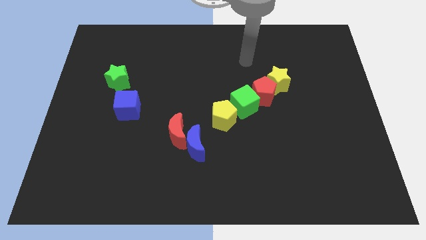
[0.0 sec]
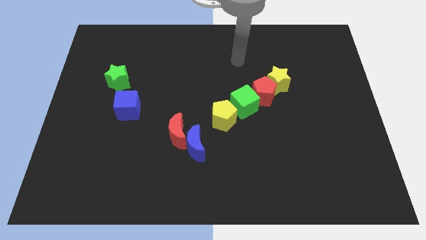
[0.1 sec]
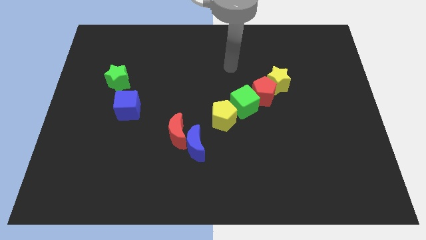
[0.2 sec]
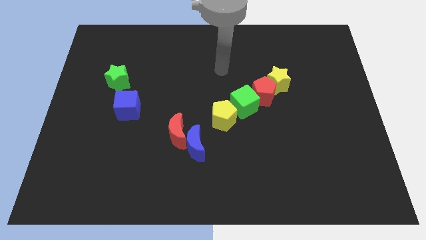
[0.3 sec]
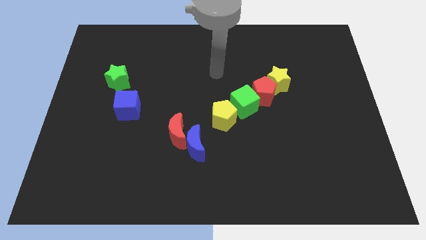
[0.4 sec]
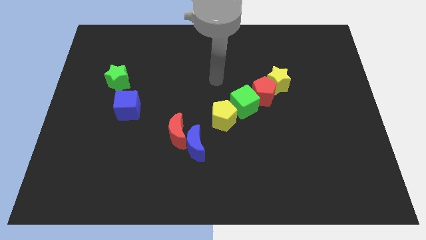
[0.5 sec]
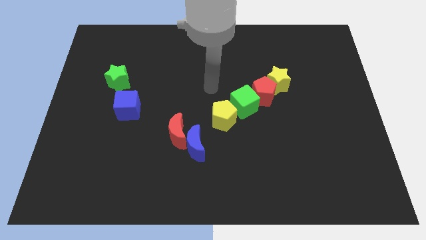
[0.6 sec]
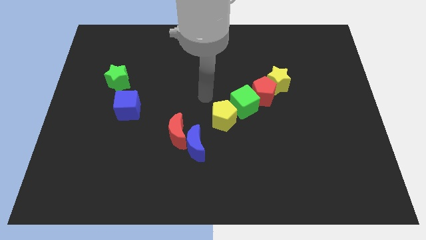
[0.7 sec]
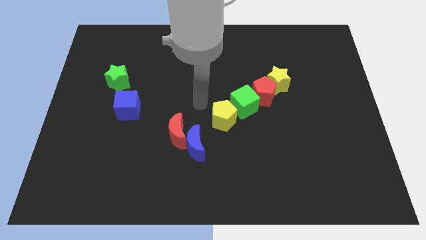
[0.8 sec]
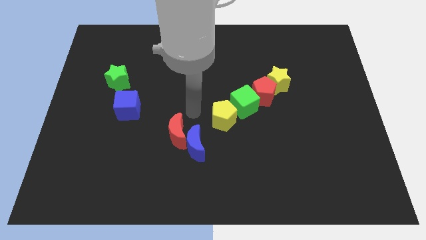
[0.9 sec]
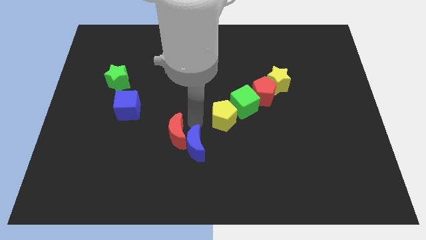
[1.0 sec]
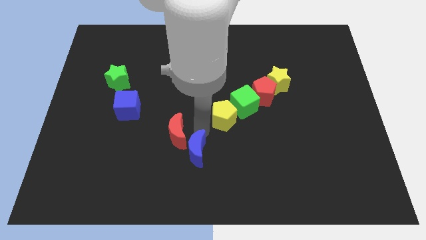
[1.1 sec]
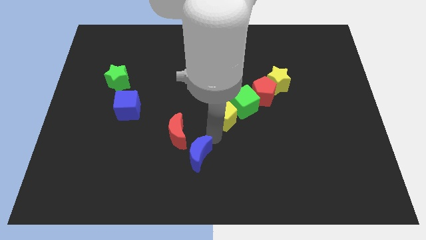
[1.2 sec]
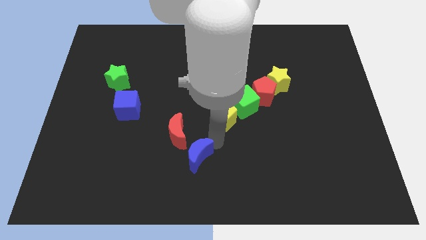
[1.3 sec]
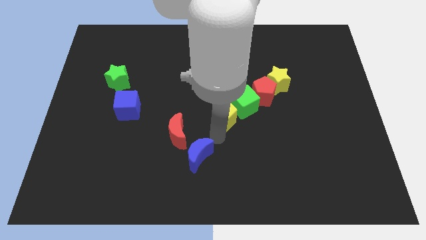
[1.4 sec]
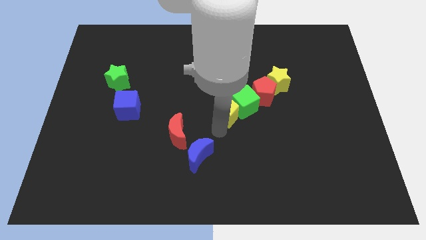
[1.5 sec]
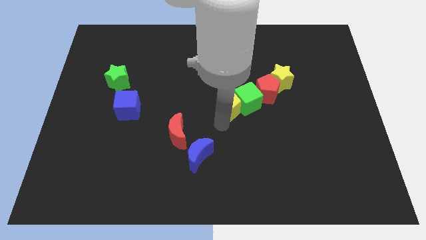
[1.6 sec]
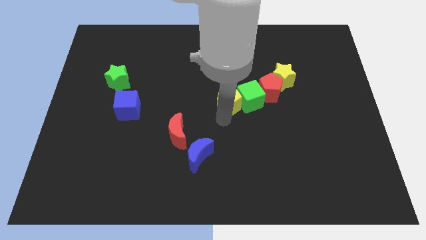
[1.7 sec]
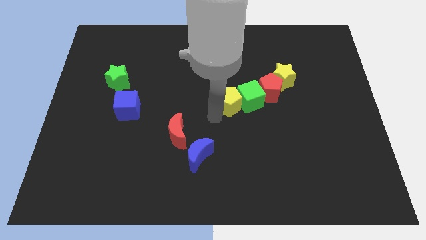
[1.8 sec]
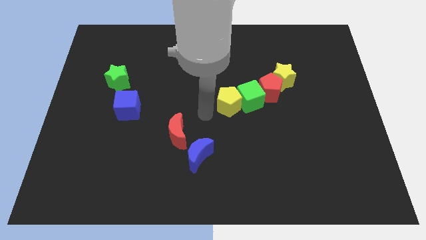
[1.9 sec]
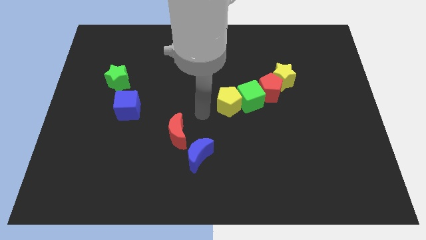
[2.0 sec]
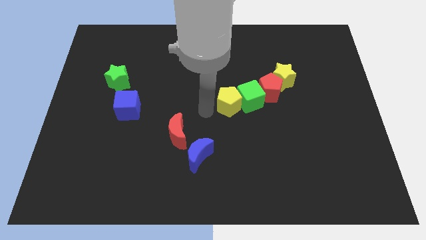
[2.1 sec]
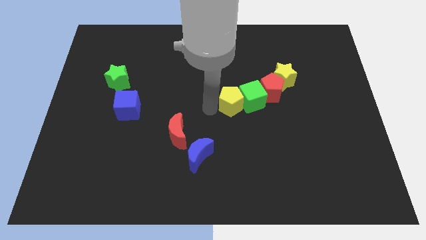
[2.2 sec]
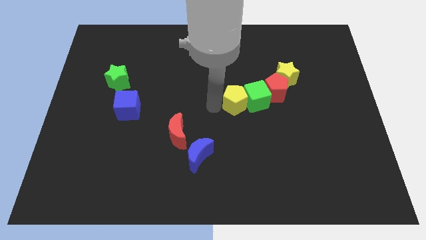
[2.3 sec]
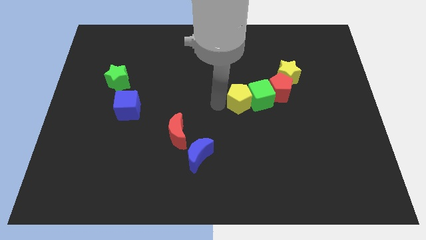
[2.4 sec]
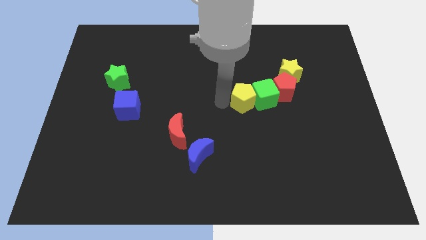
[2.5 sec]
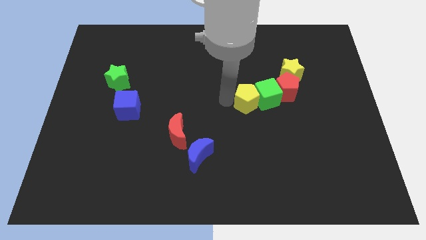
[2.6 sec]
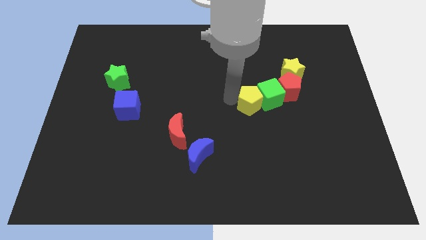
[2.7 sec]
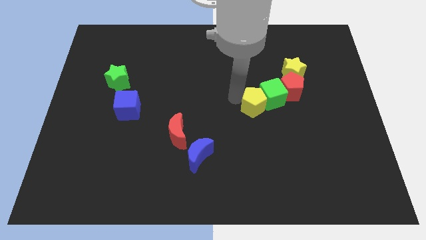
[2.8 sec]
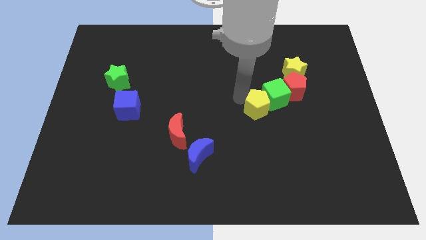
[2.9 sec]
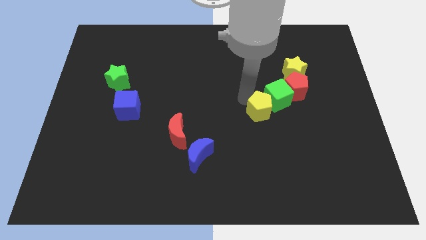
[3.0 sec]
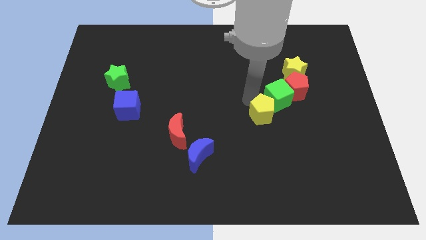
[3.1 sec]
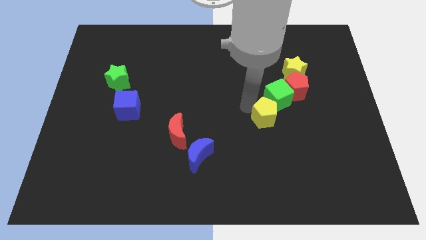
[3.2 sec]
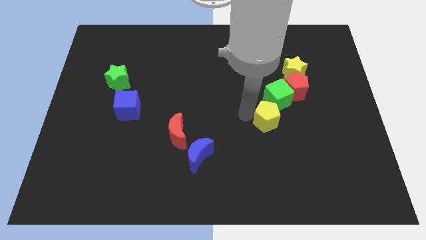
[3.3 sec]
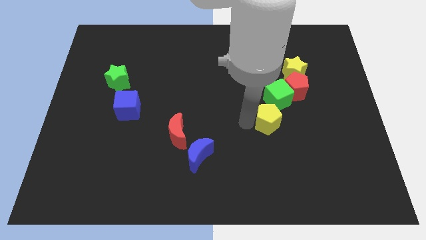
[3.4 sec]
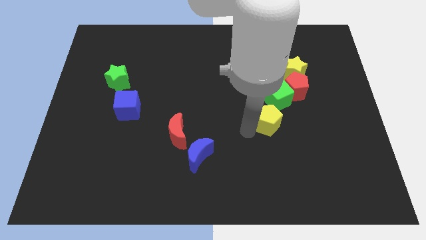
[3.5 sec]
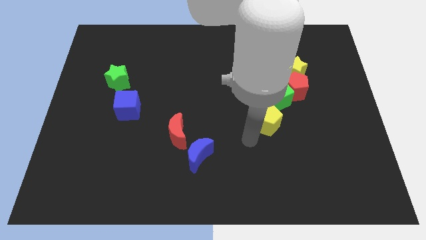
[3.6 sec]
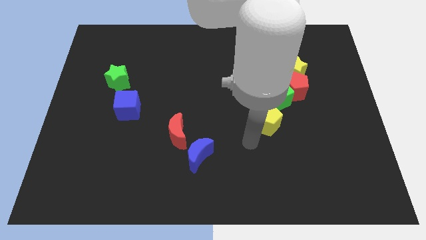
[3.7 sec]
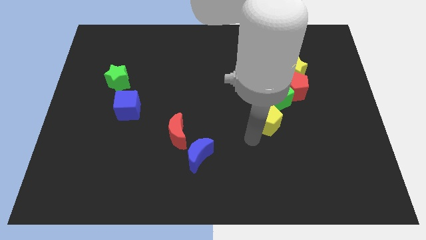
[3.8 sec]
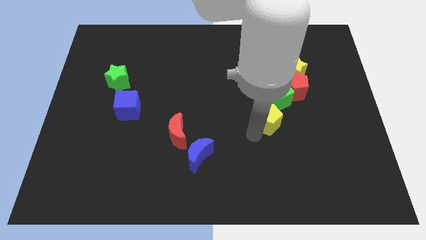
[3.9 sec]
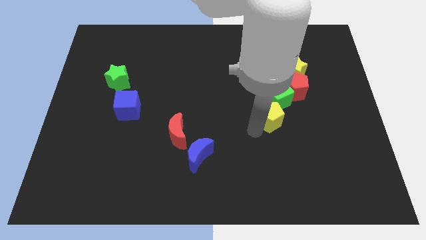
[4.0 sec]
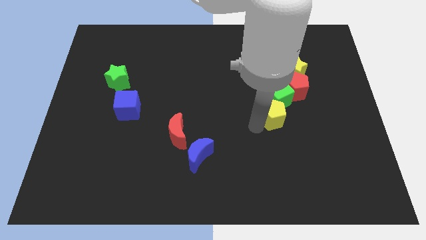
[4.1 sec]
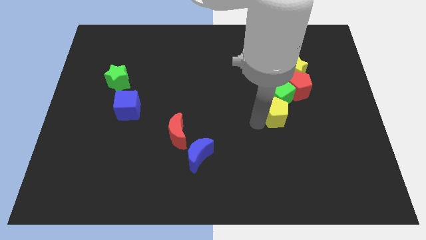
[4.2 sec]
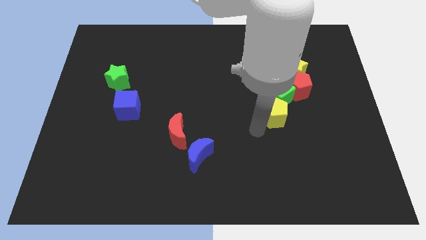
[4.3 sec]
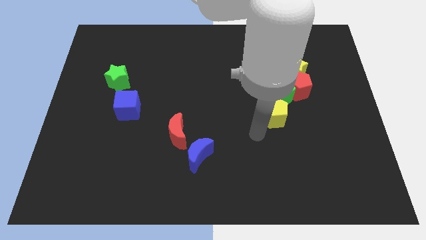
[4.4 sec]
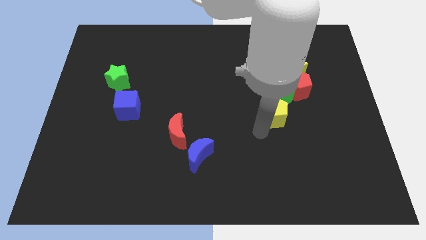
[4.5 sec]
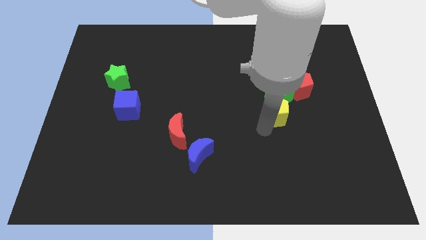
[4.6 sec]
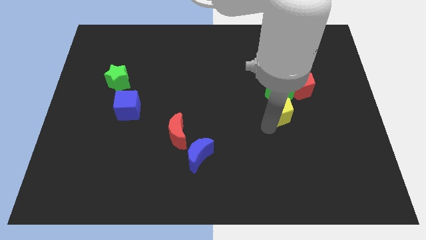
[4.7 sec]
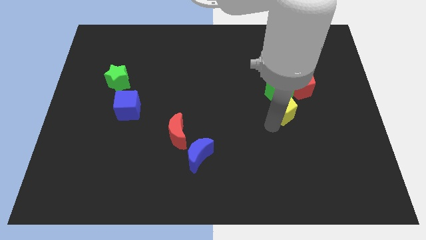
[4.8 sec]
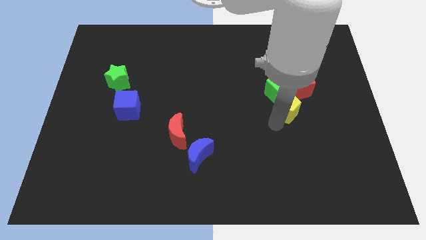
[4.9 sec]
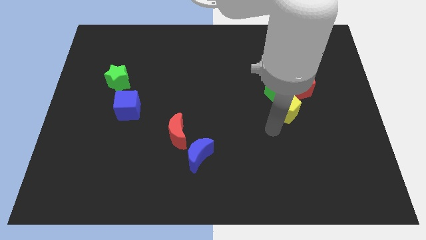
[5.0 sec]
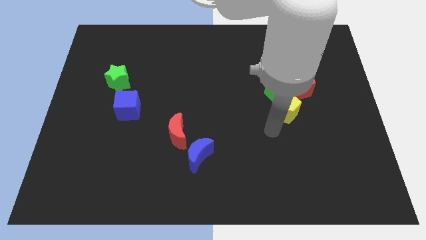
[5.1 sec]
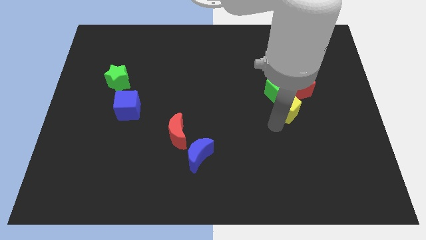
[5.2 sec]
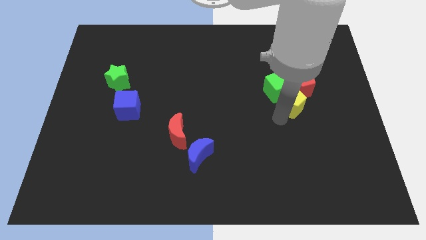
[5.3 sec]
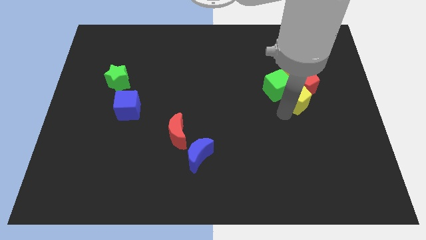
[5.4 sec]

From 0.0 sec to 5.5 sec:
put the yellow pentagon next to the red pentagon

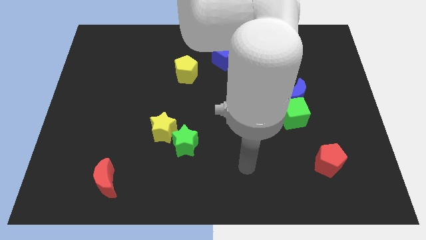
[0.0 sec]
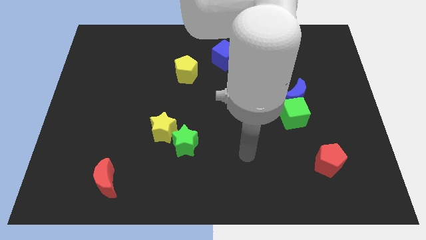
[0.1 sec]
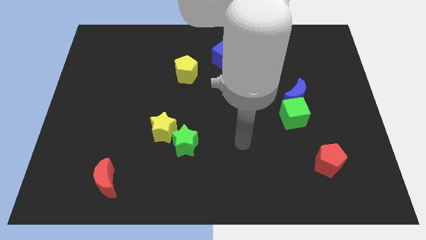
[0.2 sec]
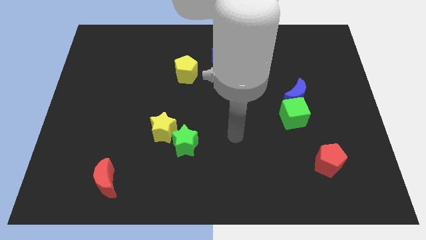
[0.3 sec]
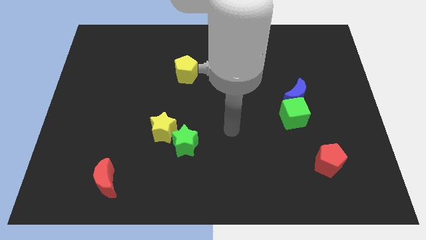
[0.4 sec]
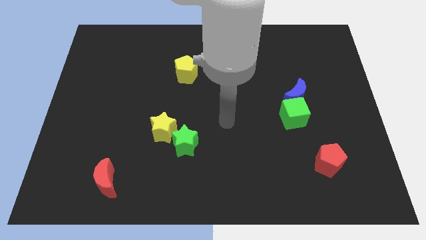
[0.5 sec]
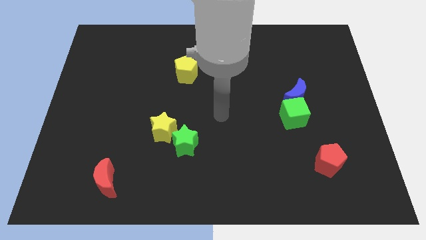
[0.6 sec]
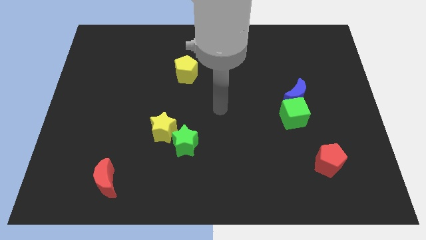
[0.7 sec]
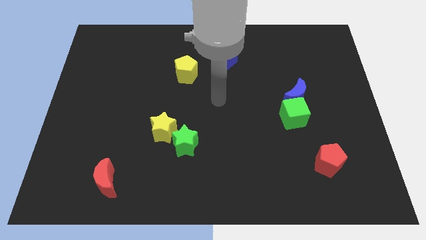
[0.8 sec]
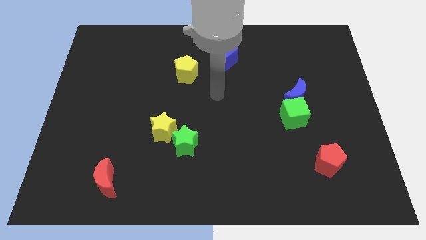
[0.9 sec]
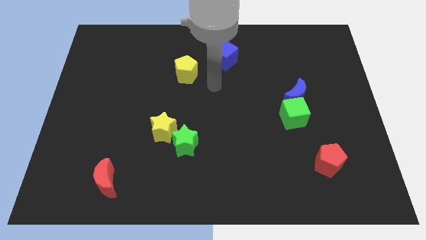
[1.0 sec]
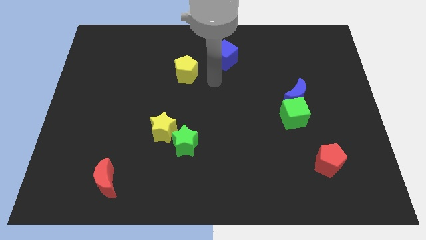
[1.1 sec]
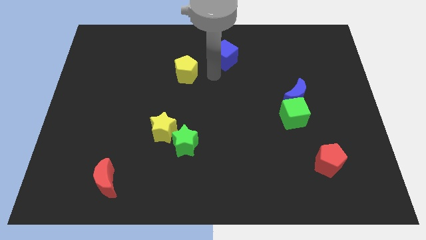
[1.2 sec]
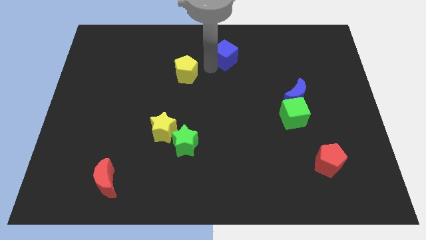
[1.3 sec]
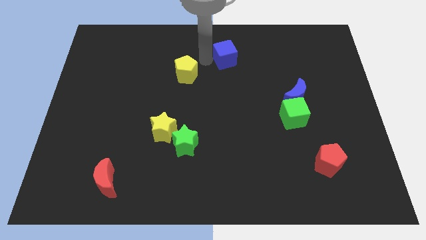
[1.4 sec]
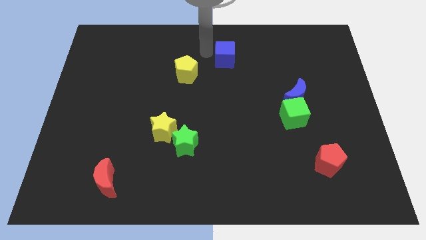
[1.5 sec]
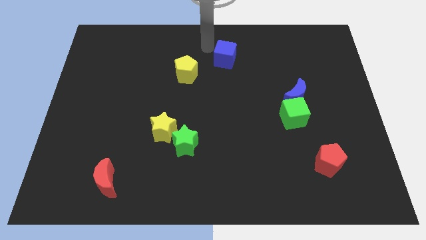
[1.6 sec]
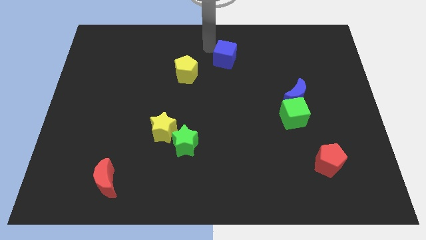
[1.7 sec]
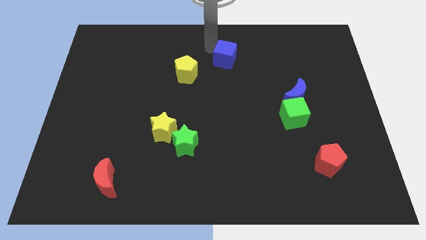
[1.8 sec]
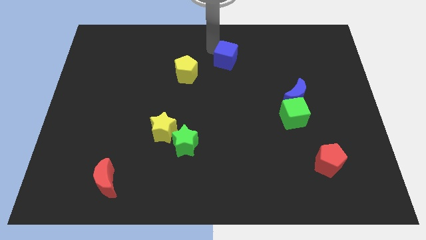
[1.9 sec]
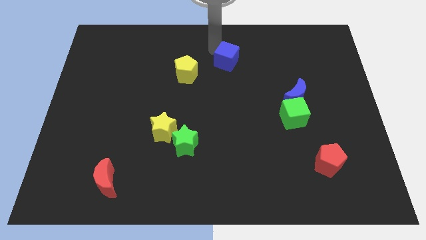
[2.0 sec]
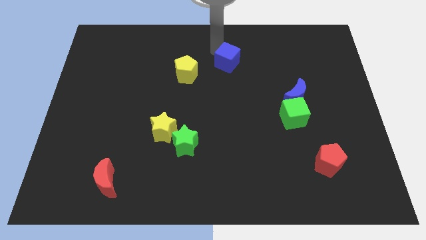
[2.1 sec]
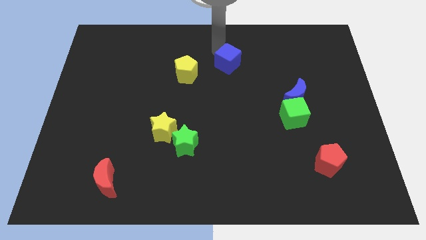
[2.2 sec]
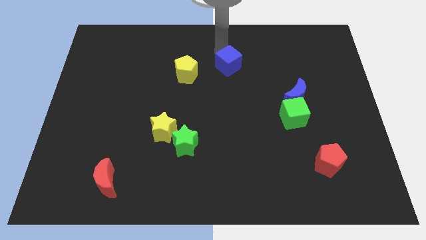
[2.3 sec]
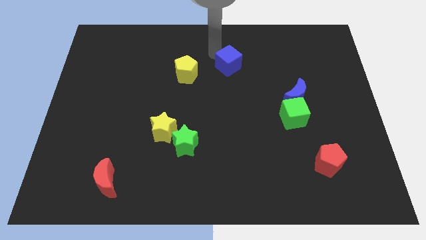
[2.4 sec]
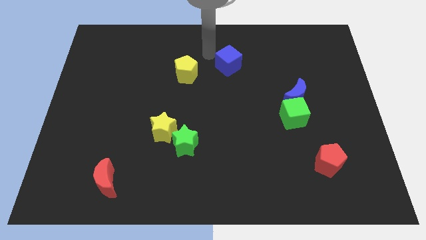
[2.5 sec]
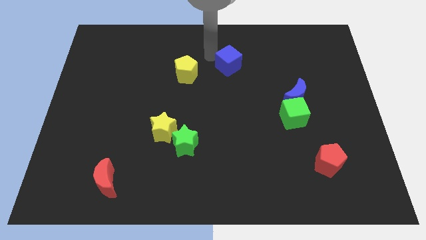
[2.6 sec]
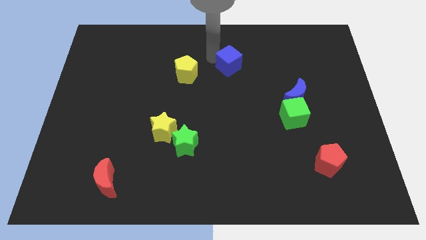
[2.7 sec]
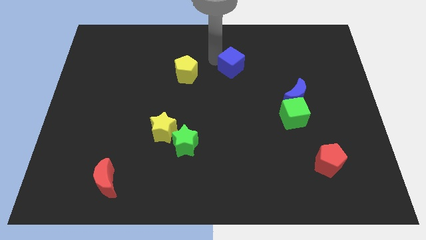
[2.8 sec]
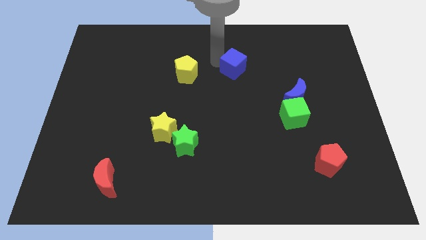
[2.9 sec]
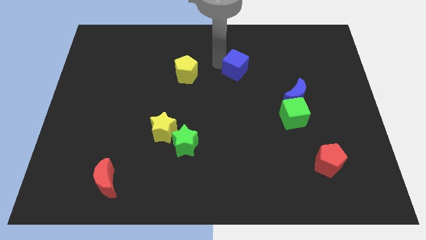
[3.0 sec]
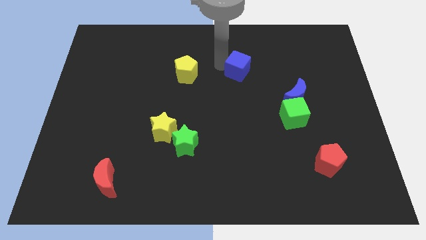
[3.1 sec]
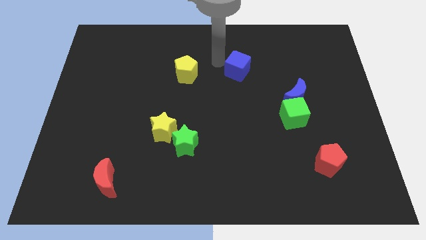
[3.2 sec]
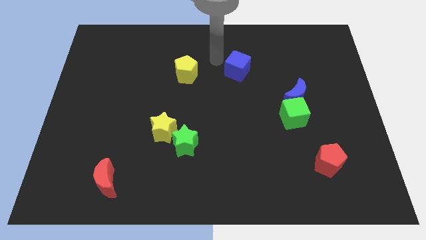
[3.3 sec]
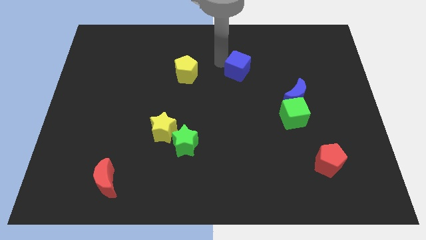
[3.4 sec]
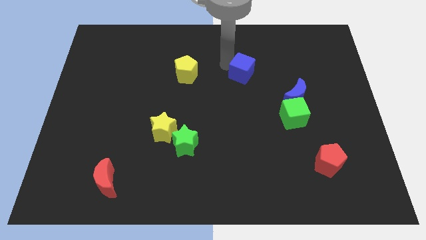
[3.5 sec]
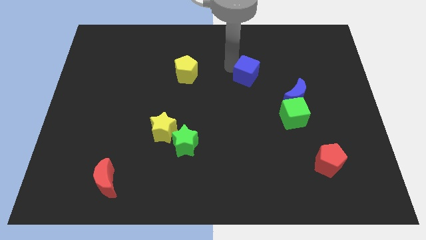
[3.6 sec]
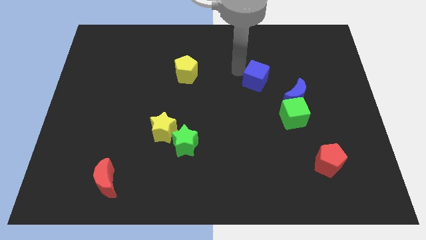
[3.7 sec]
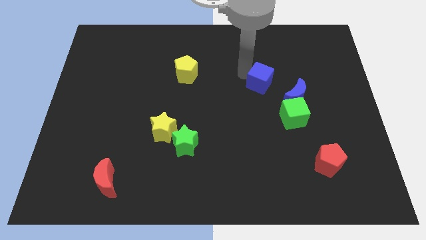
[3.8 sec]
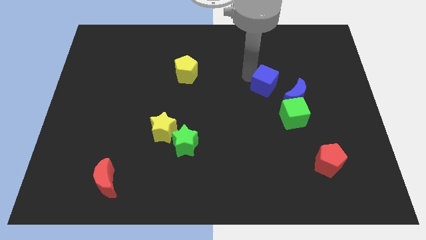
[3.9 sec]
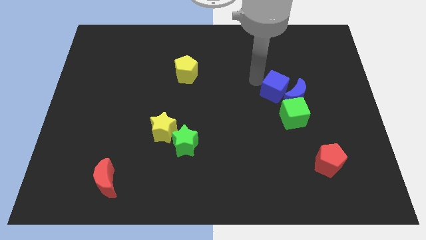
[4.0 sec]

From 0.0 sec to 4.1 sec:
move the blue cube close to the blue moon
